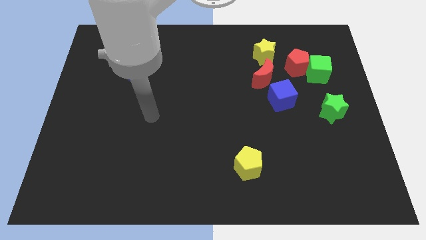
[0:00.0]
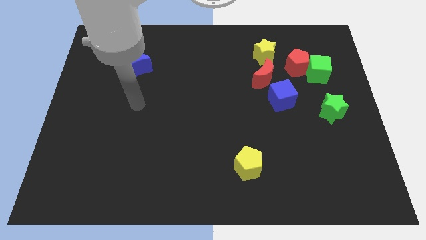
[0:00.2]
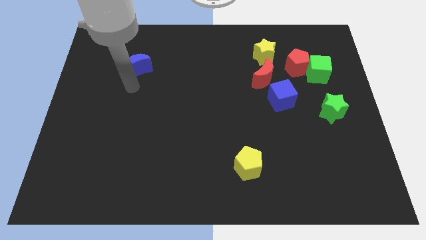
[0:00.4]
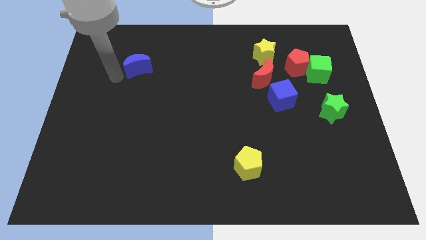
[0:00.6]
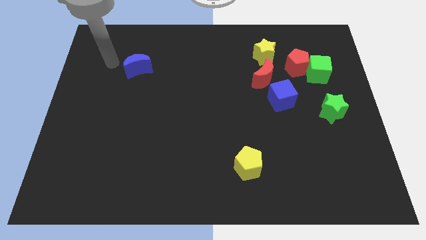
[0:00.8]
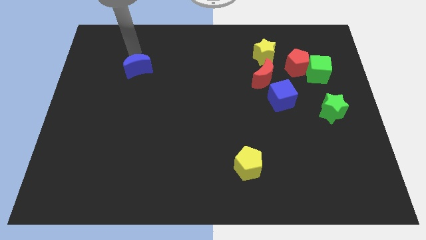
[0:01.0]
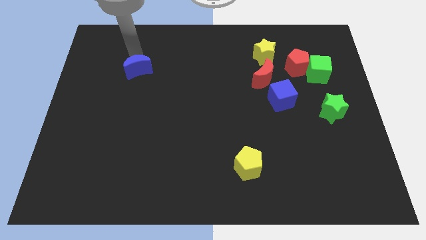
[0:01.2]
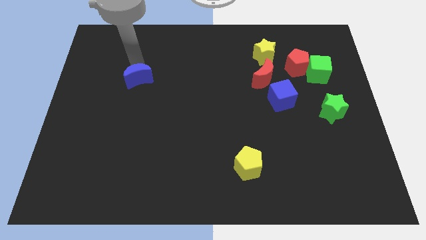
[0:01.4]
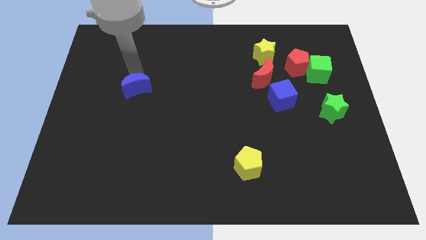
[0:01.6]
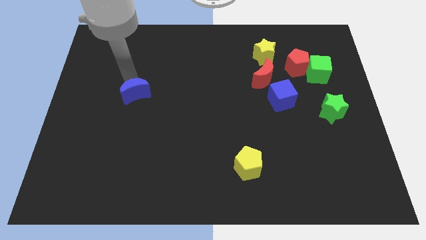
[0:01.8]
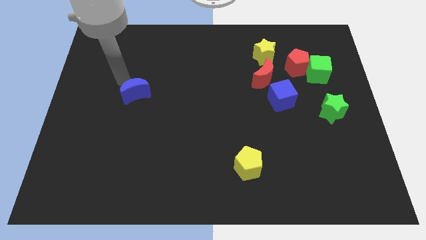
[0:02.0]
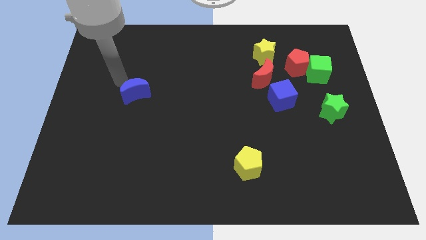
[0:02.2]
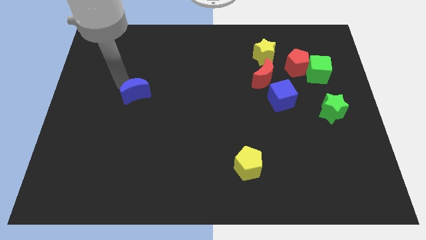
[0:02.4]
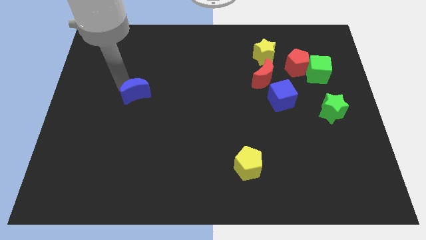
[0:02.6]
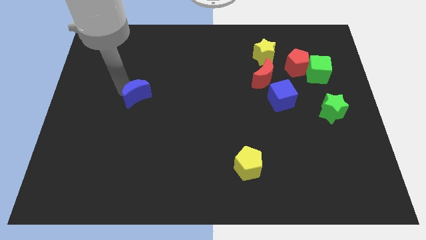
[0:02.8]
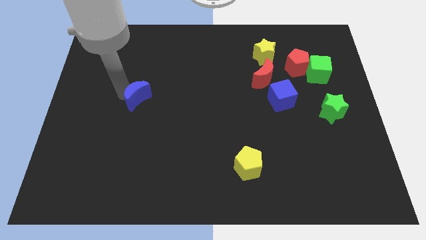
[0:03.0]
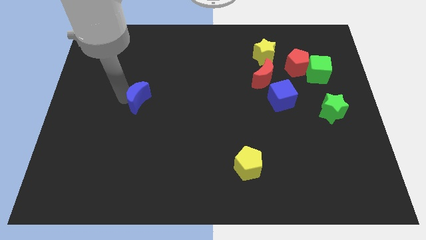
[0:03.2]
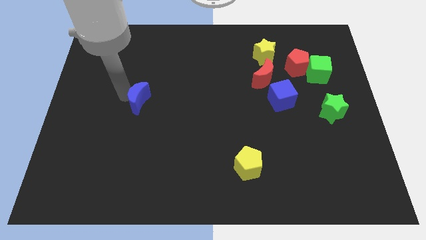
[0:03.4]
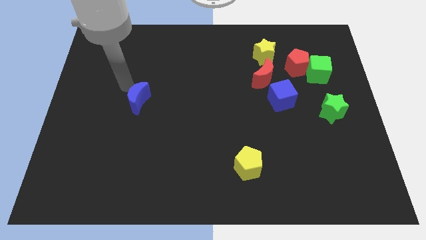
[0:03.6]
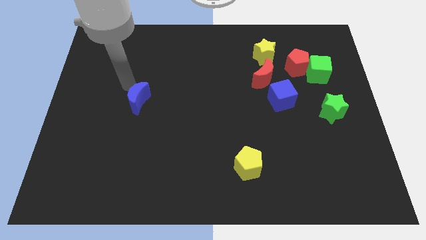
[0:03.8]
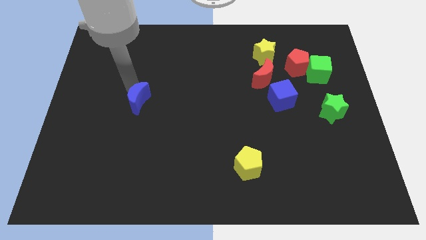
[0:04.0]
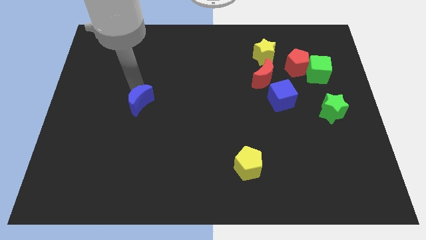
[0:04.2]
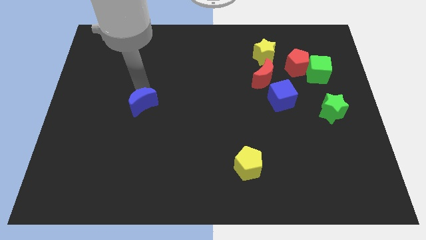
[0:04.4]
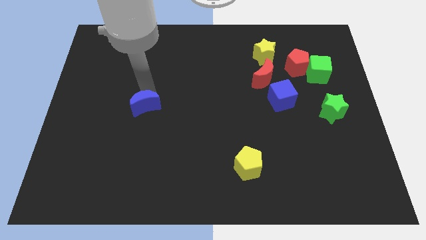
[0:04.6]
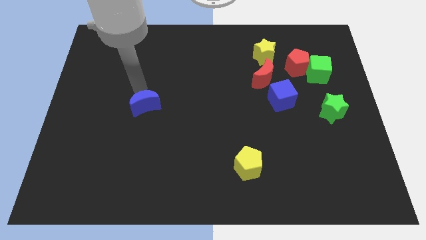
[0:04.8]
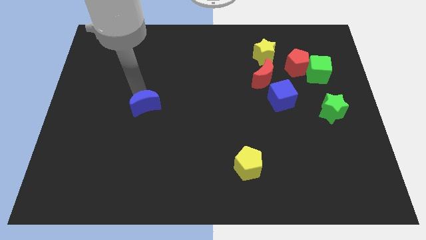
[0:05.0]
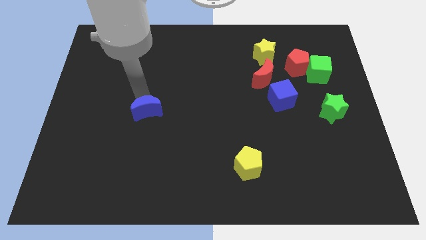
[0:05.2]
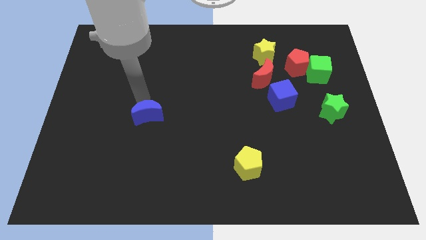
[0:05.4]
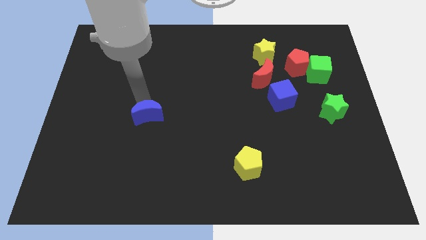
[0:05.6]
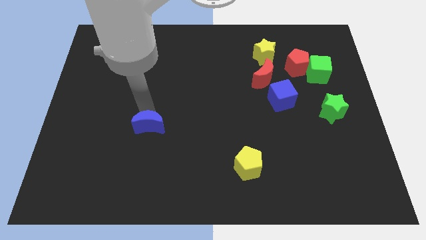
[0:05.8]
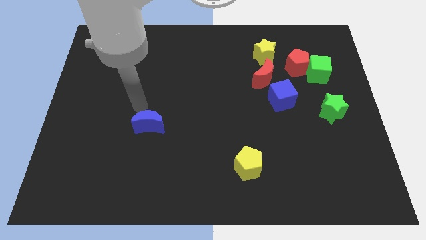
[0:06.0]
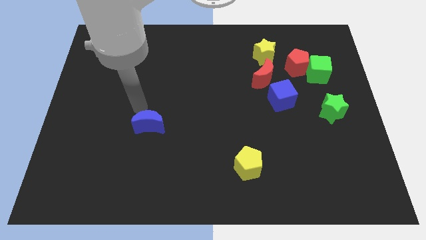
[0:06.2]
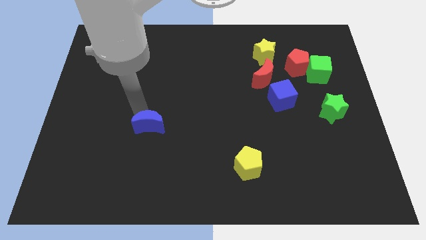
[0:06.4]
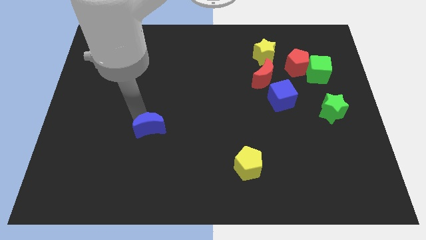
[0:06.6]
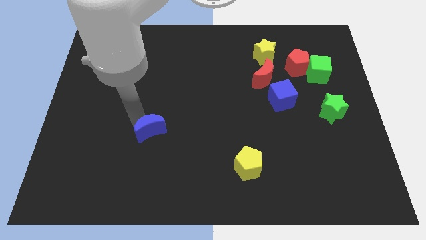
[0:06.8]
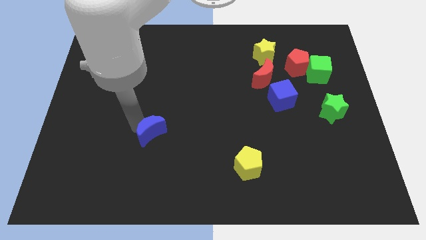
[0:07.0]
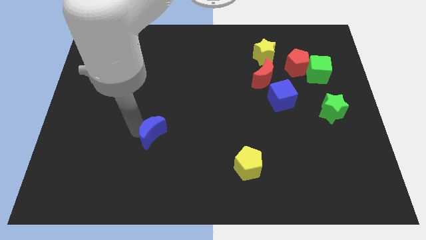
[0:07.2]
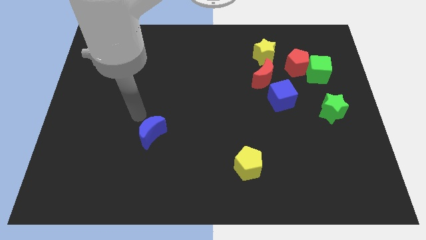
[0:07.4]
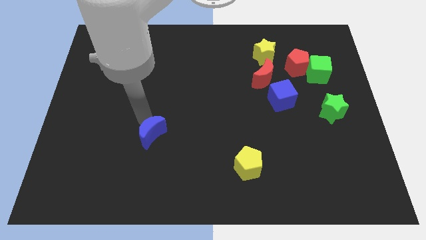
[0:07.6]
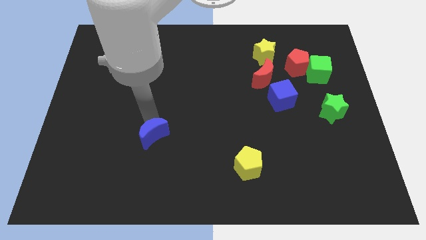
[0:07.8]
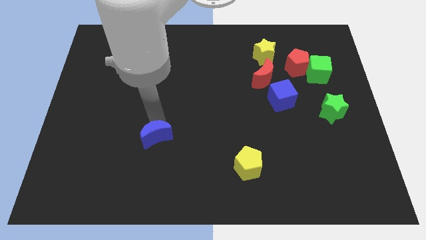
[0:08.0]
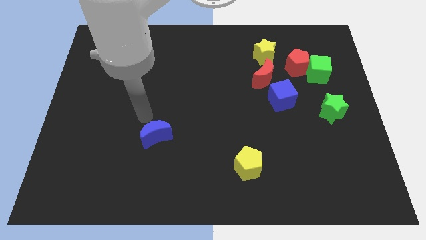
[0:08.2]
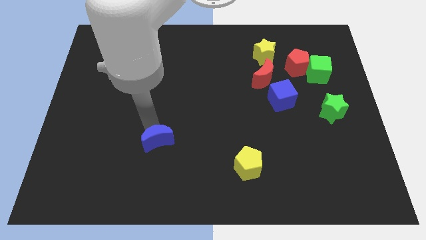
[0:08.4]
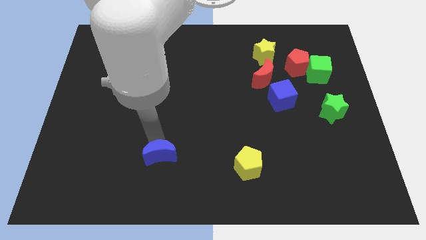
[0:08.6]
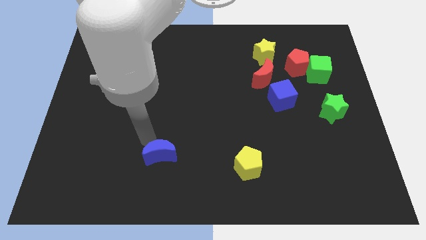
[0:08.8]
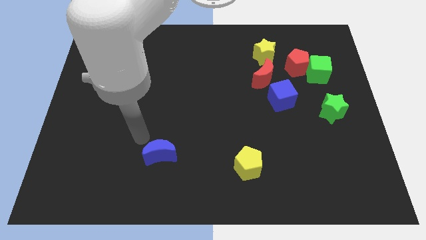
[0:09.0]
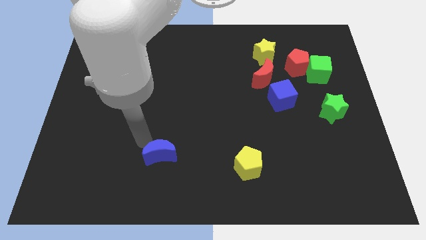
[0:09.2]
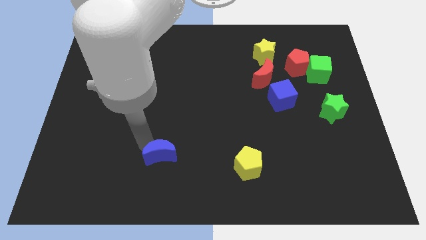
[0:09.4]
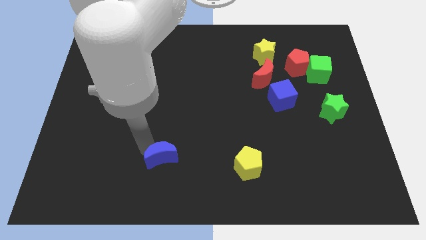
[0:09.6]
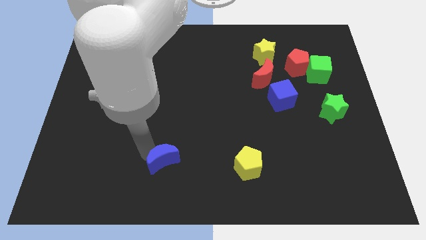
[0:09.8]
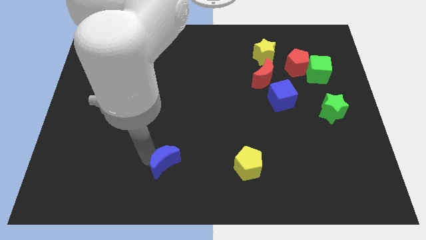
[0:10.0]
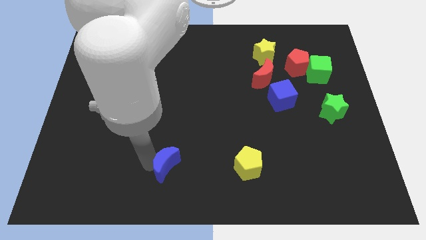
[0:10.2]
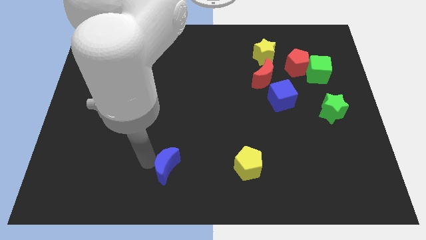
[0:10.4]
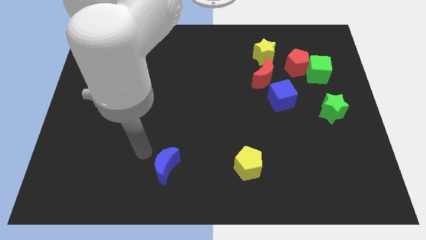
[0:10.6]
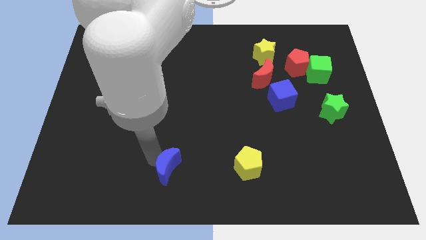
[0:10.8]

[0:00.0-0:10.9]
move the blue moon to the bottom
